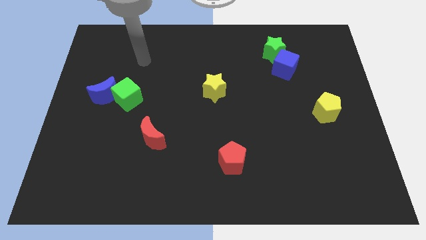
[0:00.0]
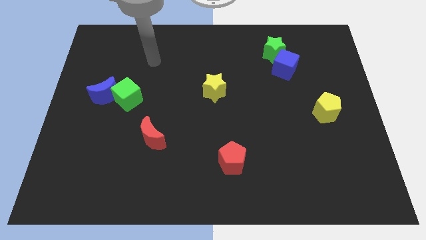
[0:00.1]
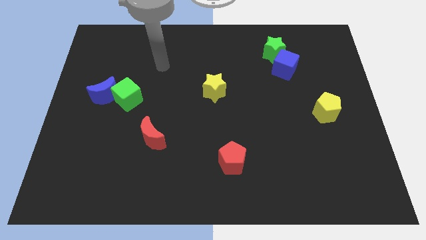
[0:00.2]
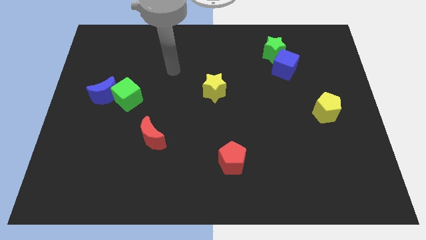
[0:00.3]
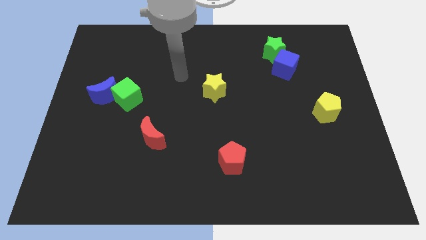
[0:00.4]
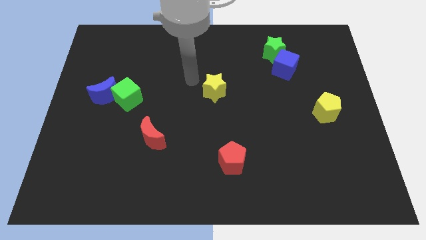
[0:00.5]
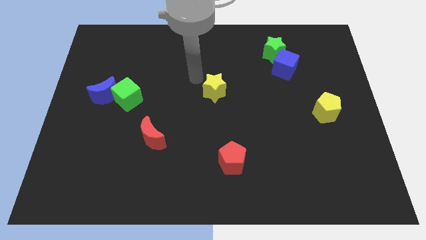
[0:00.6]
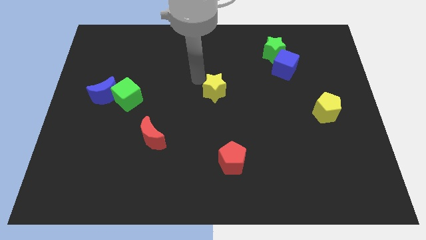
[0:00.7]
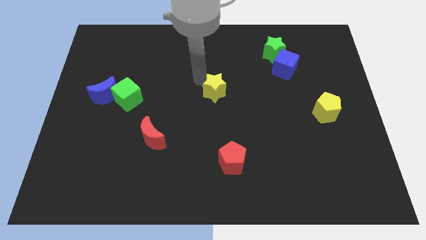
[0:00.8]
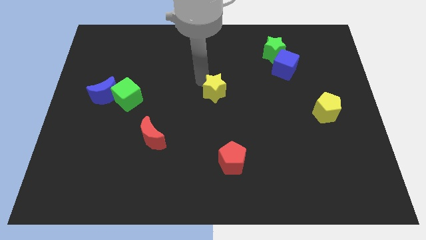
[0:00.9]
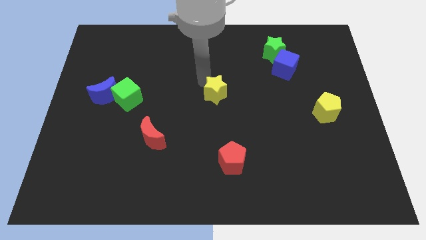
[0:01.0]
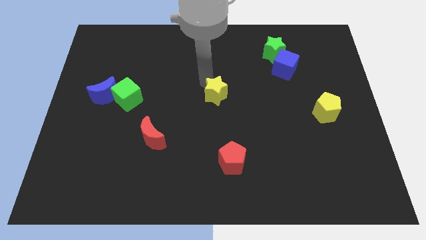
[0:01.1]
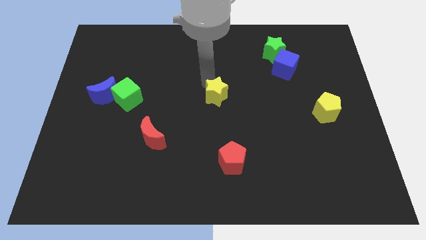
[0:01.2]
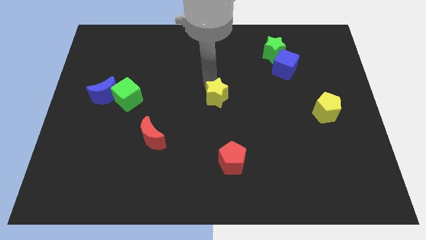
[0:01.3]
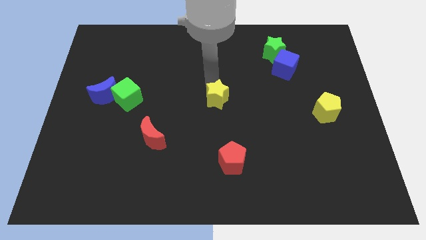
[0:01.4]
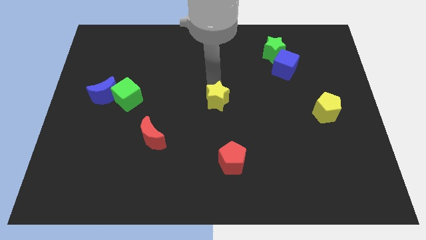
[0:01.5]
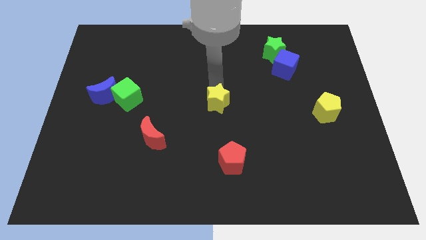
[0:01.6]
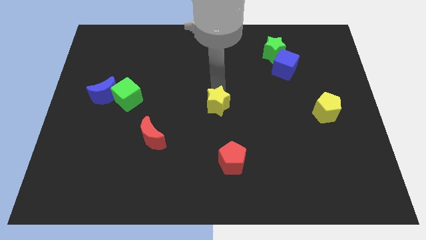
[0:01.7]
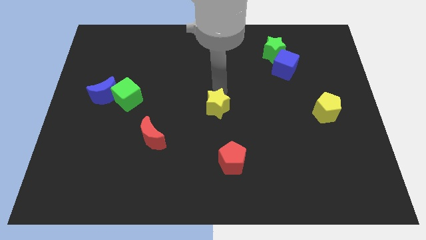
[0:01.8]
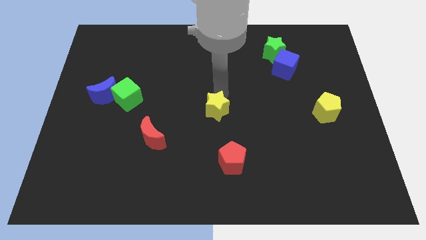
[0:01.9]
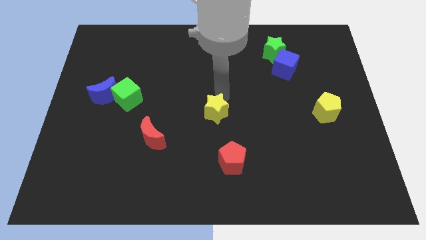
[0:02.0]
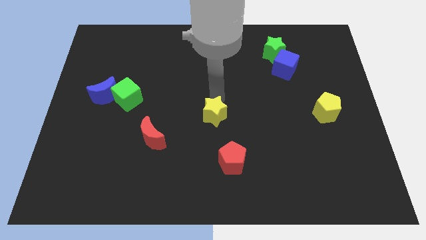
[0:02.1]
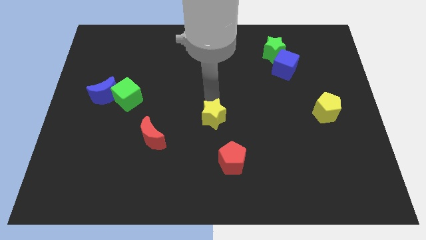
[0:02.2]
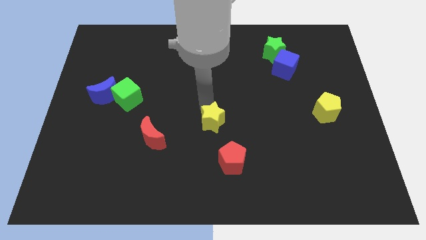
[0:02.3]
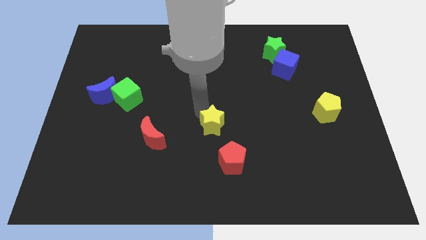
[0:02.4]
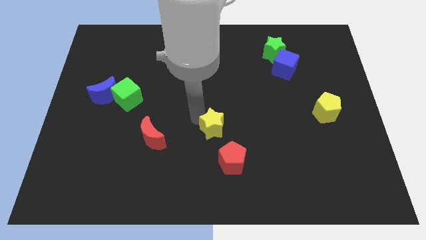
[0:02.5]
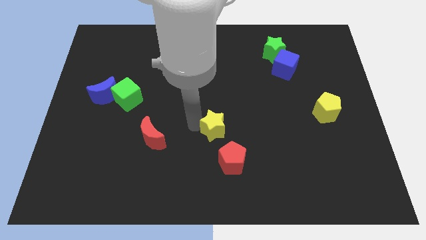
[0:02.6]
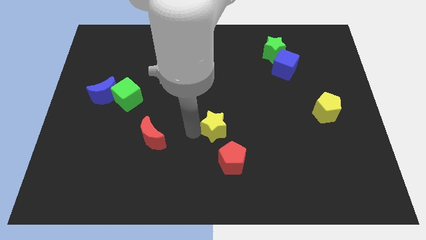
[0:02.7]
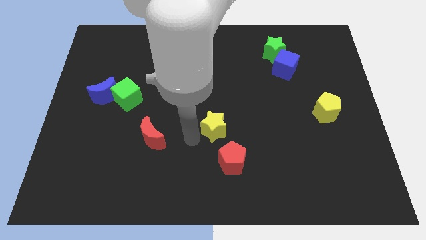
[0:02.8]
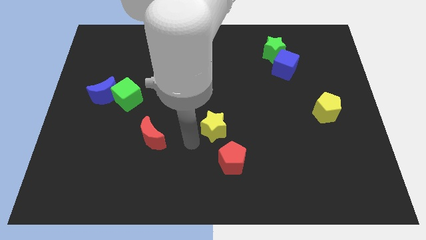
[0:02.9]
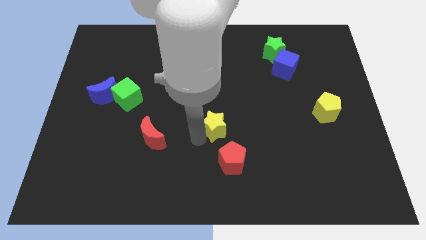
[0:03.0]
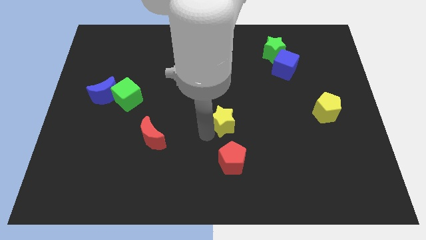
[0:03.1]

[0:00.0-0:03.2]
push the yellow star downwards and then to the right a little

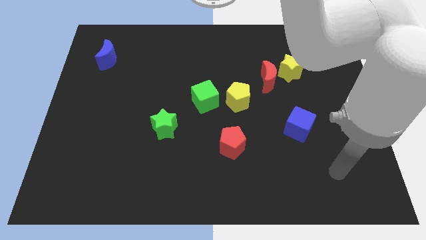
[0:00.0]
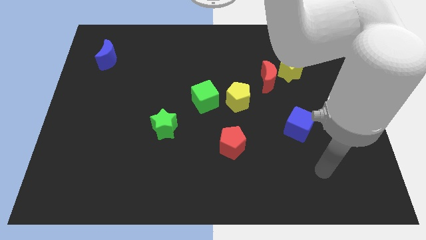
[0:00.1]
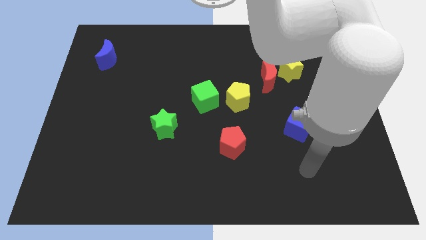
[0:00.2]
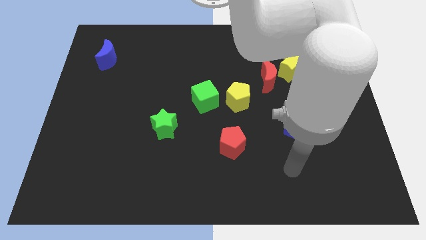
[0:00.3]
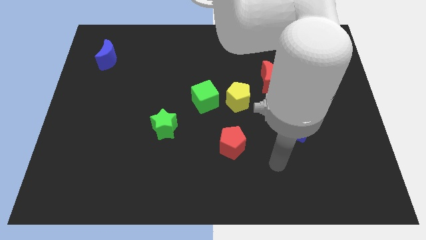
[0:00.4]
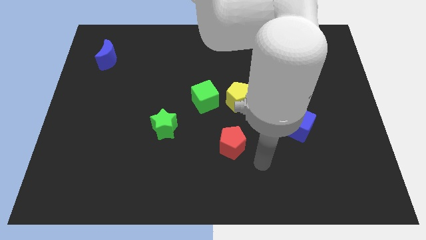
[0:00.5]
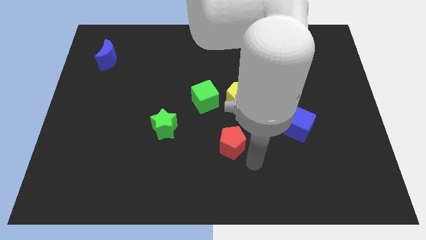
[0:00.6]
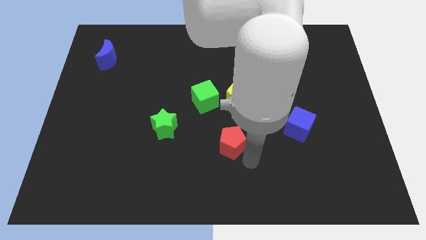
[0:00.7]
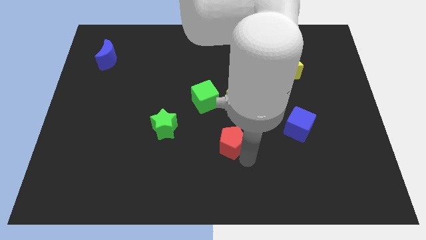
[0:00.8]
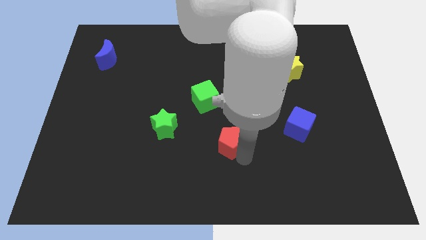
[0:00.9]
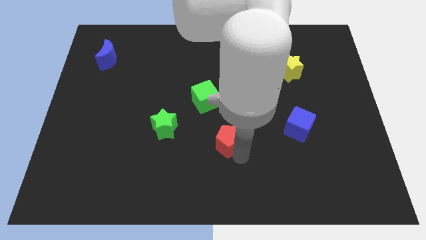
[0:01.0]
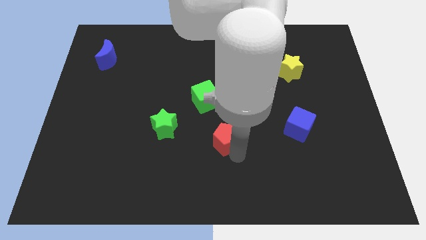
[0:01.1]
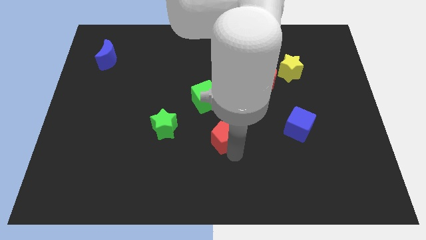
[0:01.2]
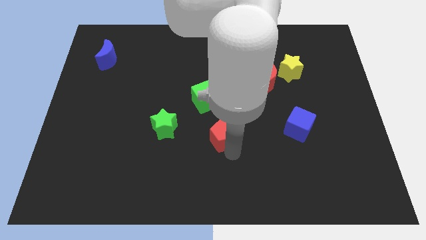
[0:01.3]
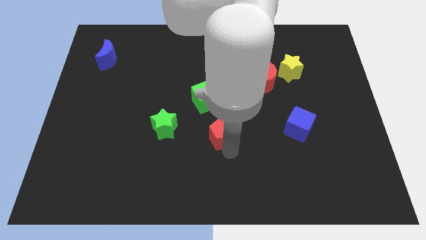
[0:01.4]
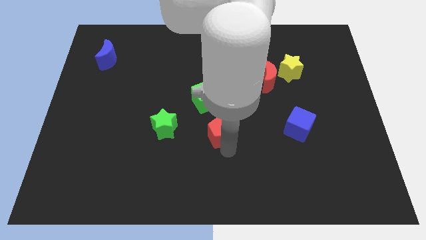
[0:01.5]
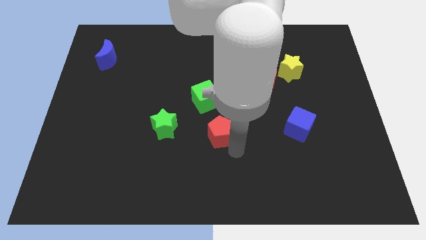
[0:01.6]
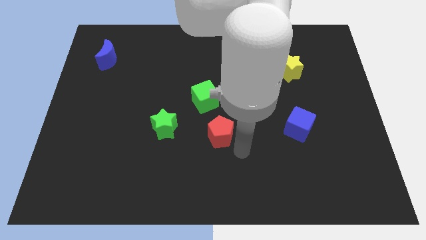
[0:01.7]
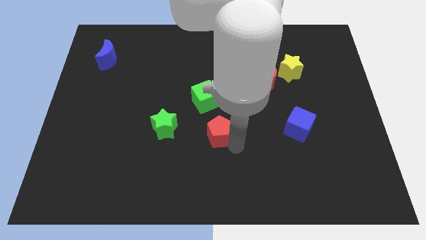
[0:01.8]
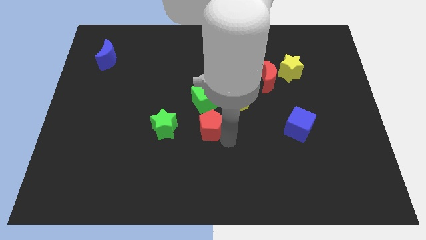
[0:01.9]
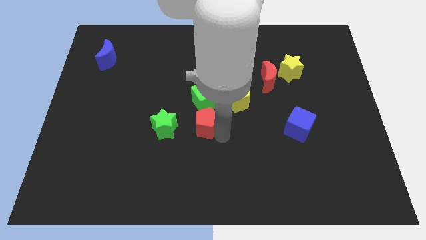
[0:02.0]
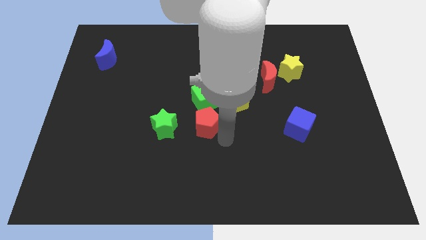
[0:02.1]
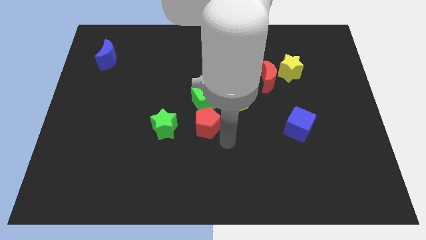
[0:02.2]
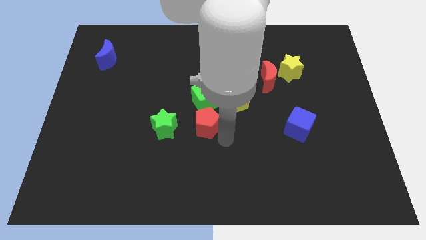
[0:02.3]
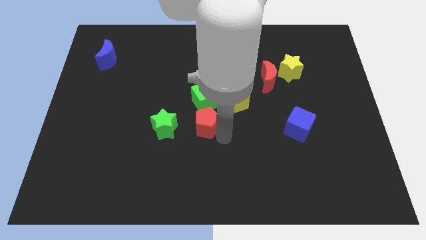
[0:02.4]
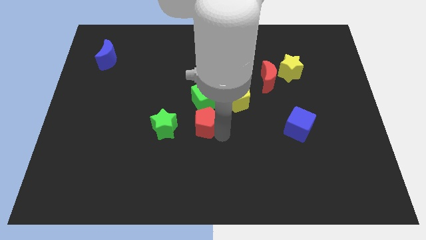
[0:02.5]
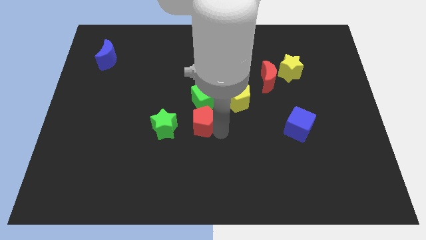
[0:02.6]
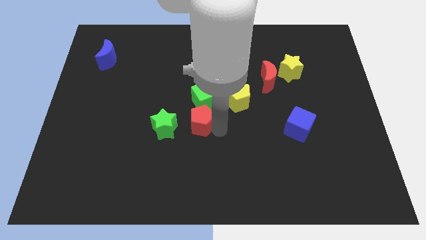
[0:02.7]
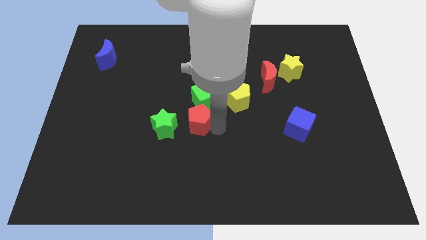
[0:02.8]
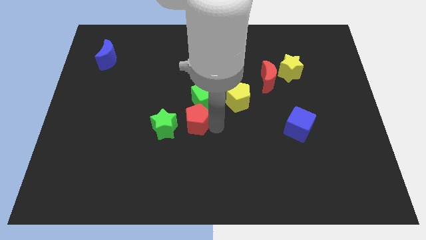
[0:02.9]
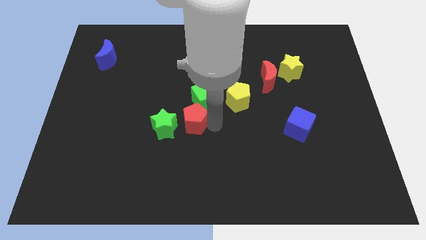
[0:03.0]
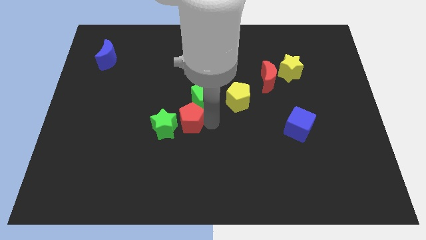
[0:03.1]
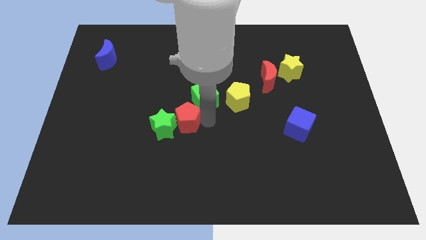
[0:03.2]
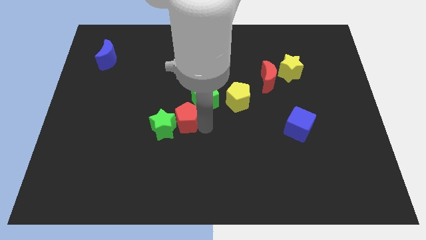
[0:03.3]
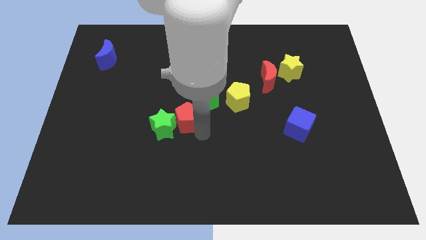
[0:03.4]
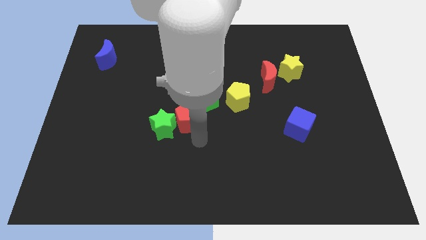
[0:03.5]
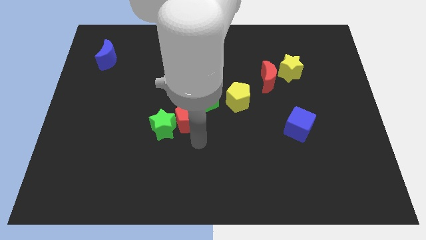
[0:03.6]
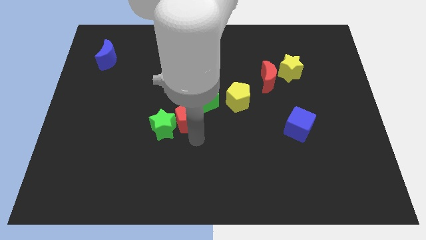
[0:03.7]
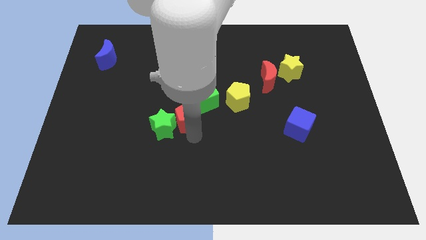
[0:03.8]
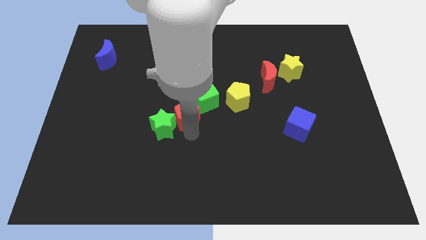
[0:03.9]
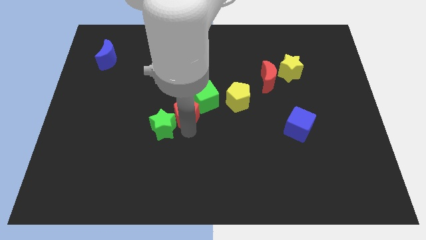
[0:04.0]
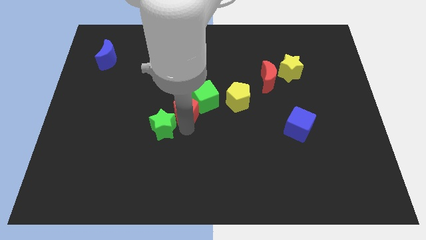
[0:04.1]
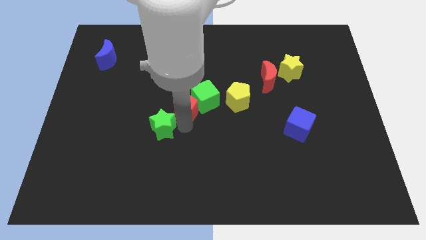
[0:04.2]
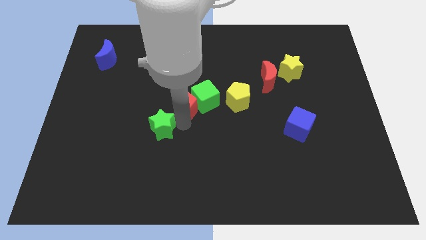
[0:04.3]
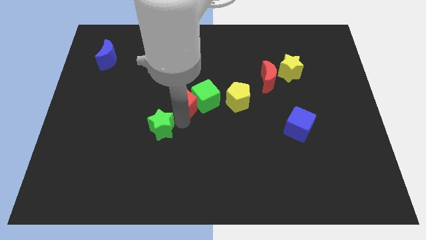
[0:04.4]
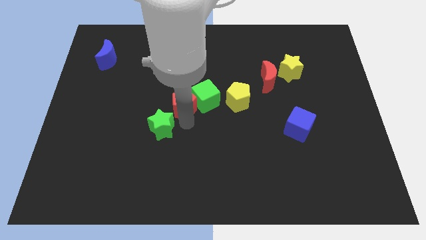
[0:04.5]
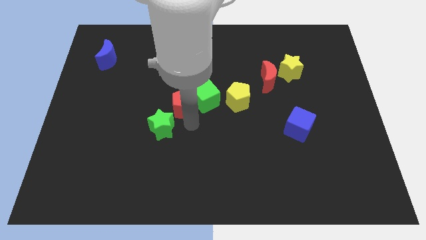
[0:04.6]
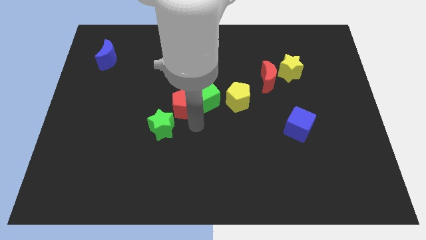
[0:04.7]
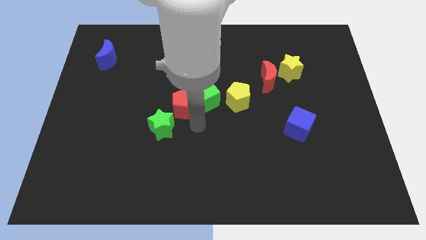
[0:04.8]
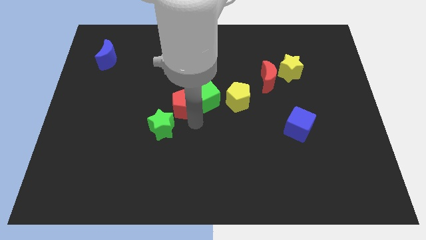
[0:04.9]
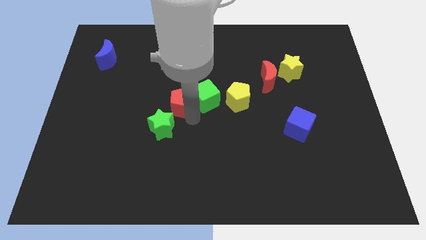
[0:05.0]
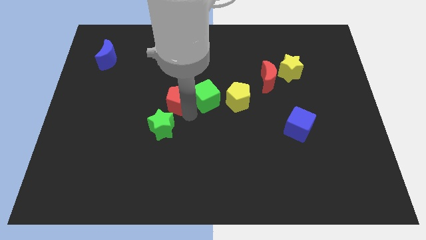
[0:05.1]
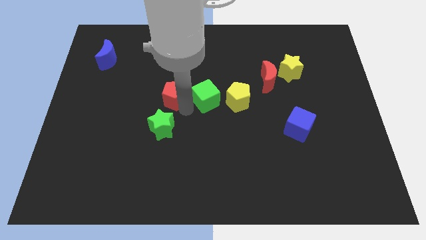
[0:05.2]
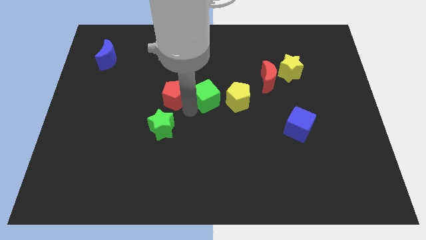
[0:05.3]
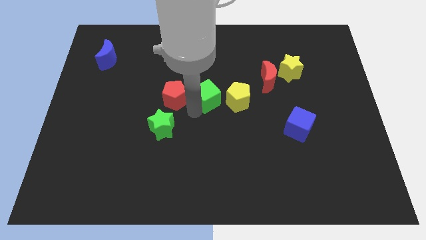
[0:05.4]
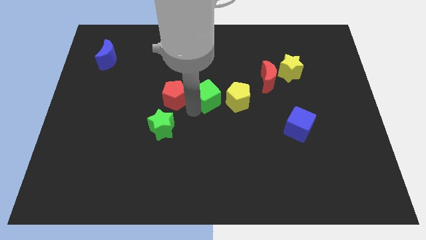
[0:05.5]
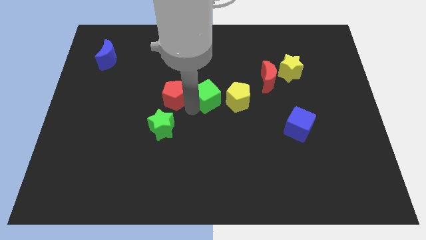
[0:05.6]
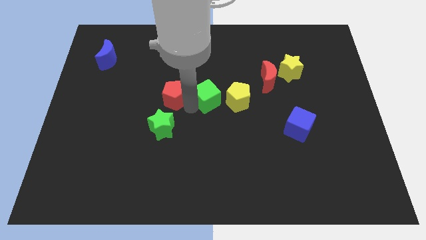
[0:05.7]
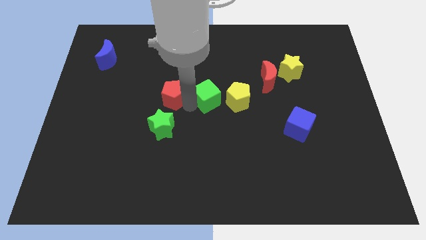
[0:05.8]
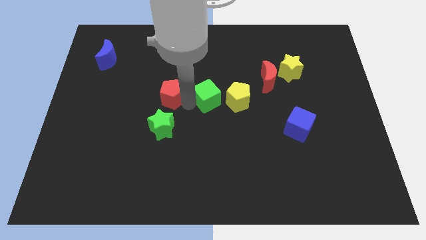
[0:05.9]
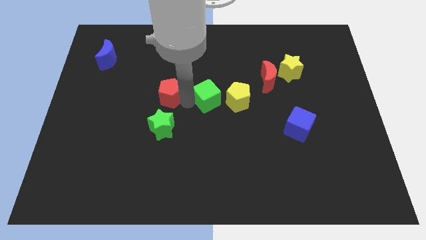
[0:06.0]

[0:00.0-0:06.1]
slide the red pentagon upwards and then to the left
